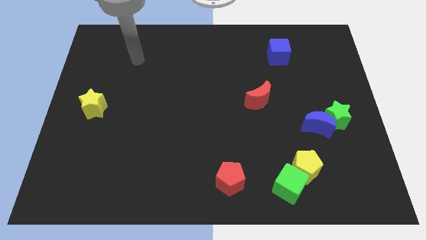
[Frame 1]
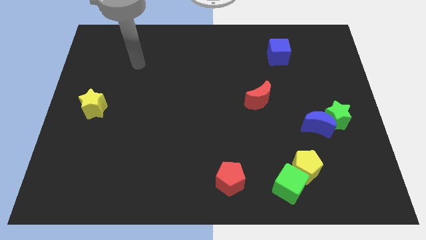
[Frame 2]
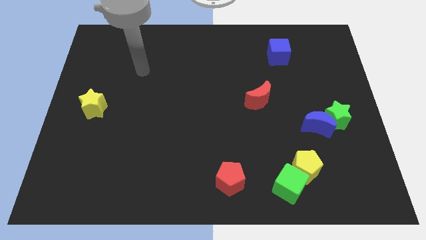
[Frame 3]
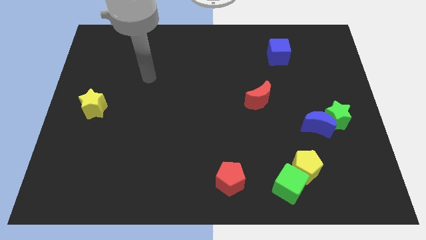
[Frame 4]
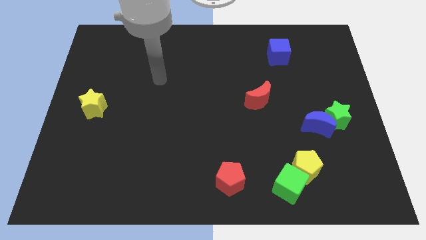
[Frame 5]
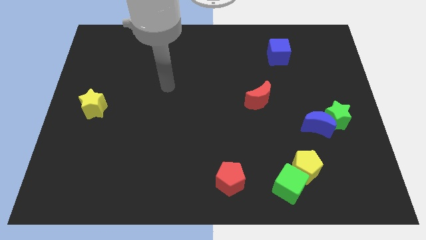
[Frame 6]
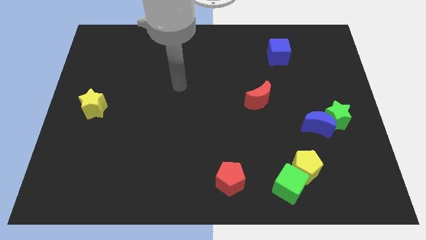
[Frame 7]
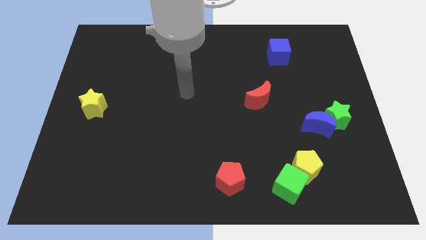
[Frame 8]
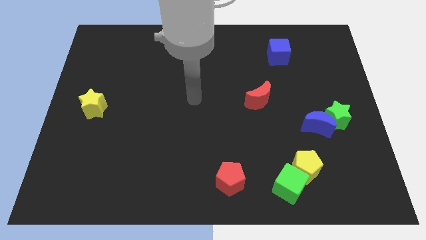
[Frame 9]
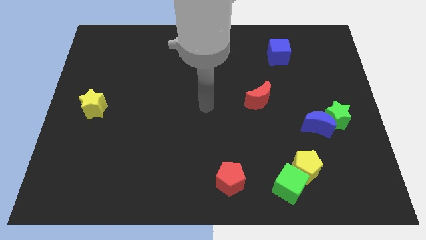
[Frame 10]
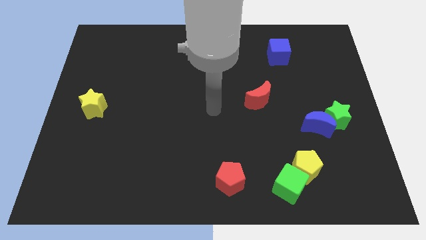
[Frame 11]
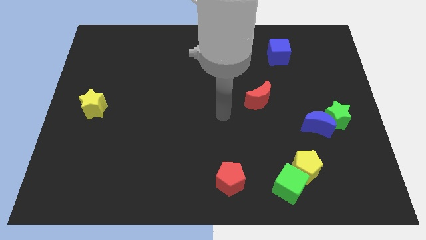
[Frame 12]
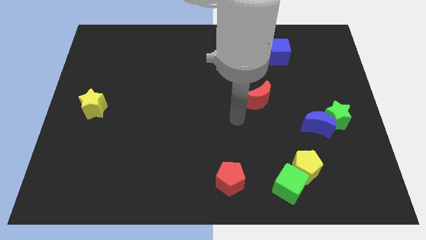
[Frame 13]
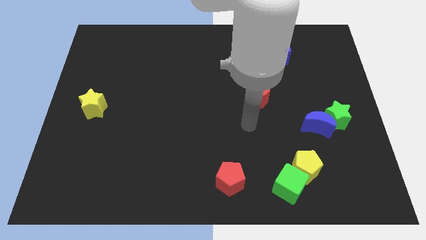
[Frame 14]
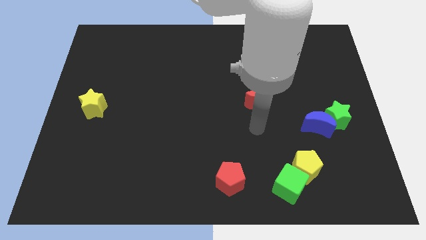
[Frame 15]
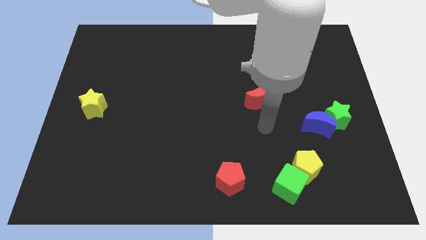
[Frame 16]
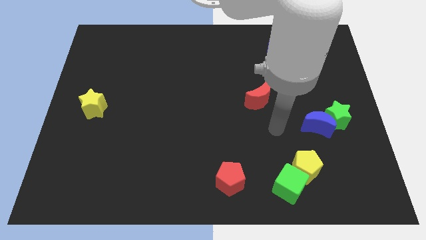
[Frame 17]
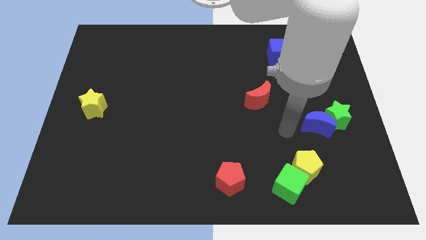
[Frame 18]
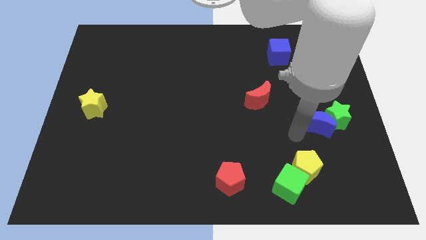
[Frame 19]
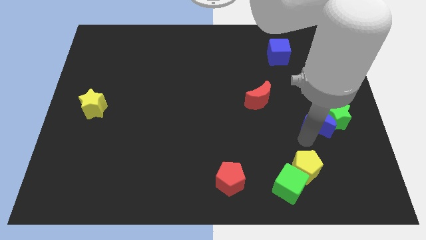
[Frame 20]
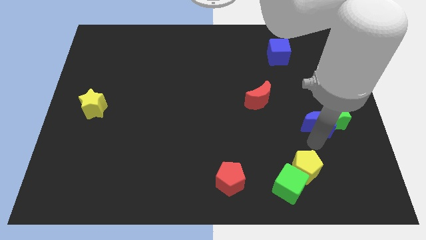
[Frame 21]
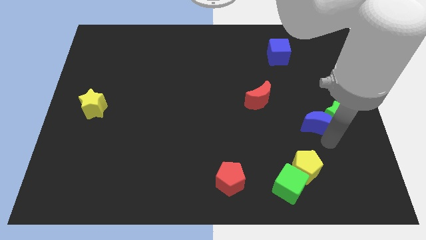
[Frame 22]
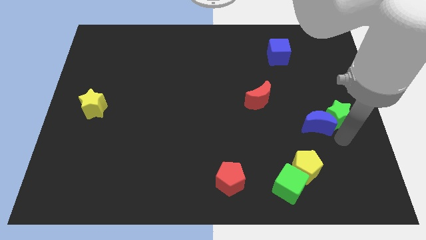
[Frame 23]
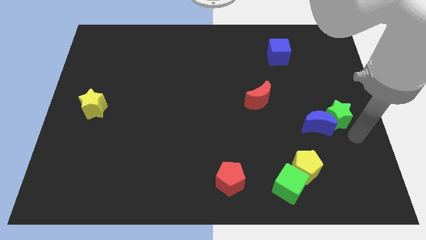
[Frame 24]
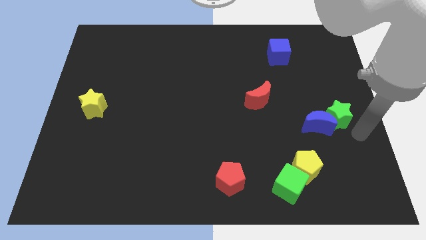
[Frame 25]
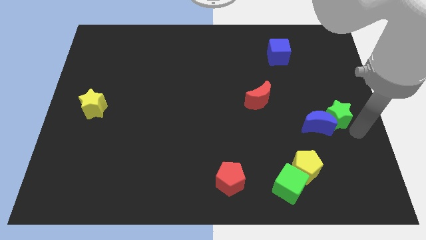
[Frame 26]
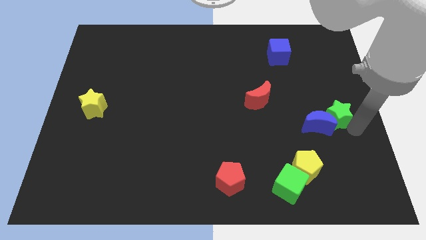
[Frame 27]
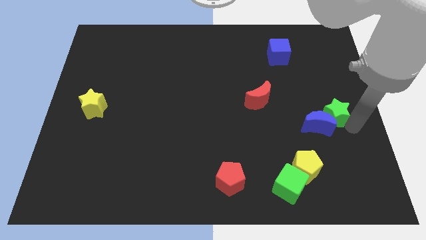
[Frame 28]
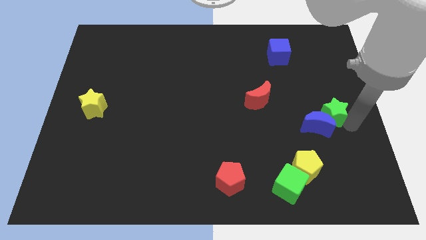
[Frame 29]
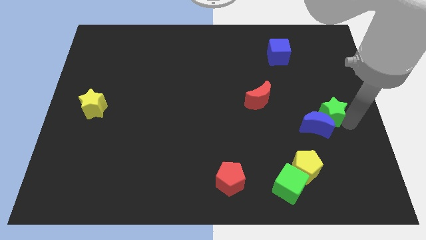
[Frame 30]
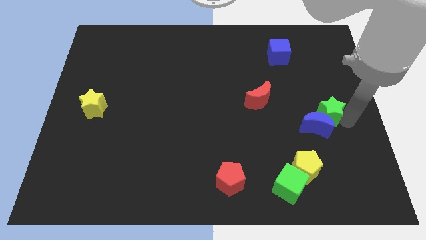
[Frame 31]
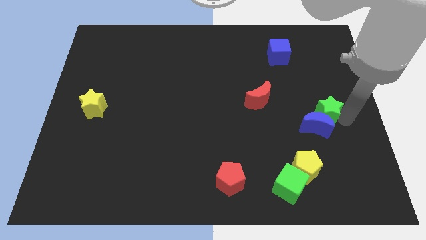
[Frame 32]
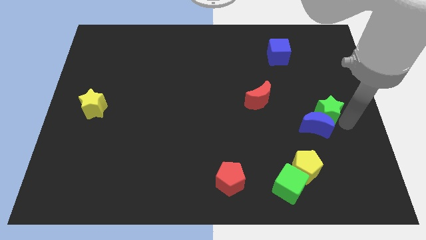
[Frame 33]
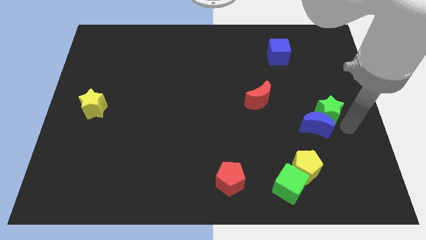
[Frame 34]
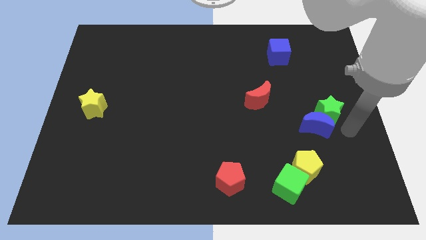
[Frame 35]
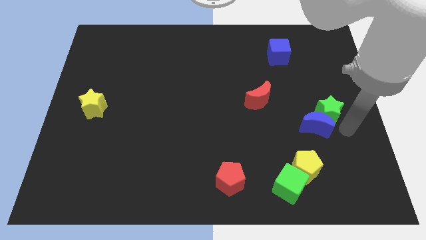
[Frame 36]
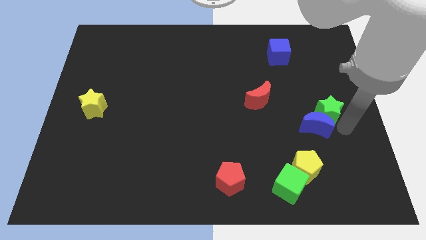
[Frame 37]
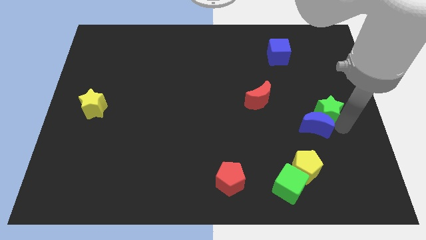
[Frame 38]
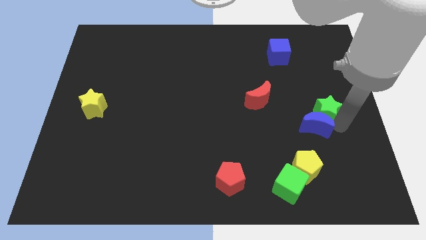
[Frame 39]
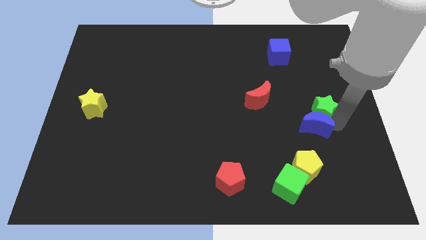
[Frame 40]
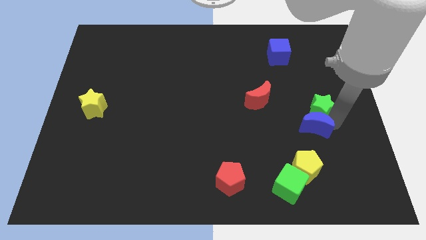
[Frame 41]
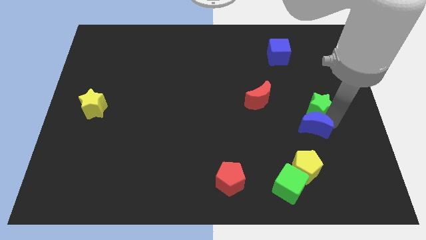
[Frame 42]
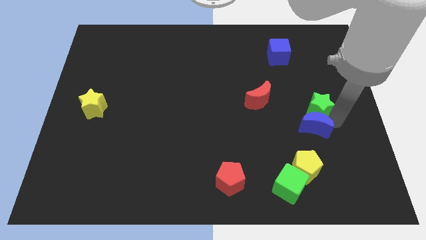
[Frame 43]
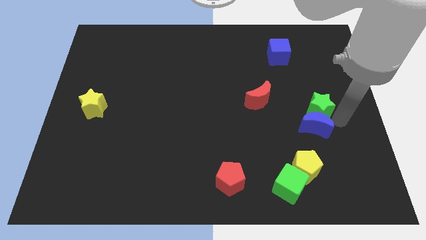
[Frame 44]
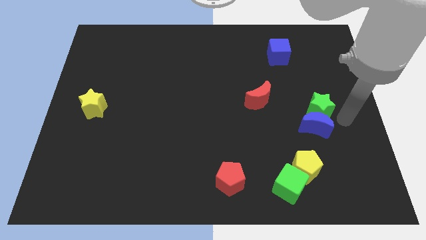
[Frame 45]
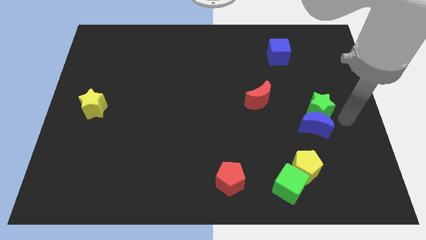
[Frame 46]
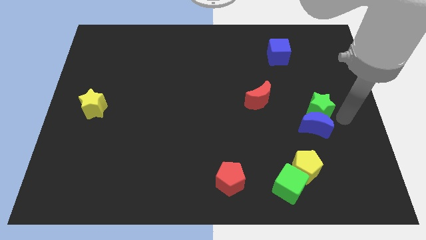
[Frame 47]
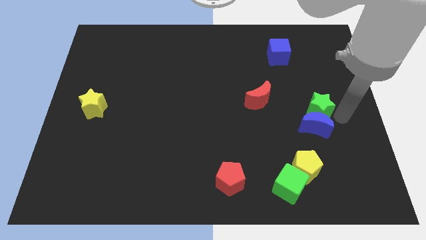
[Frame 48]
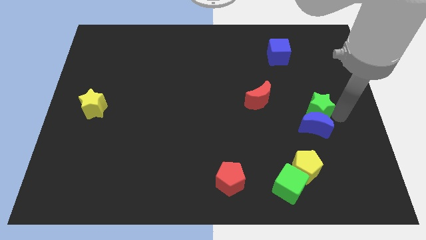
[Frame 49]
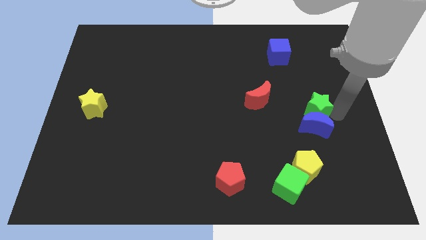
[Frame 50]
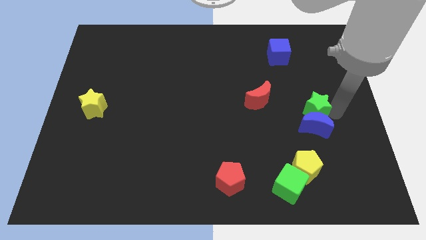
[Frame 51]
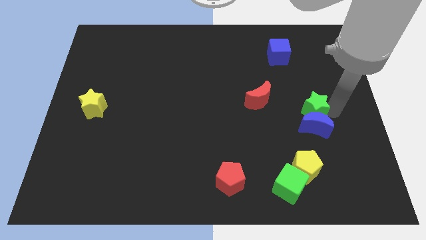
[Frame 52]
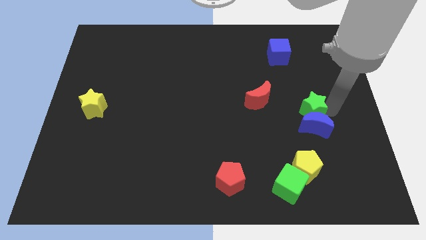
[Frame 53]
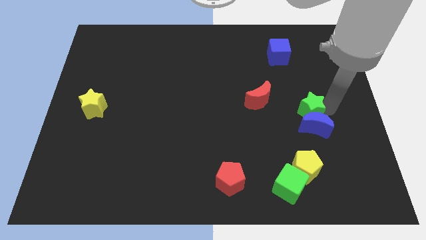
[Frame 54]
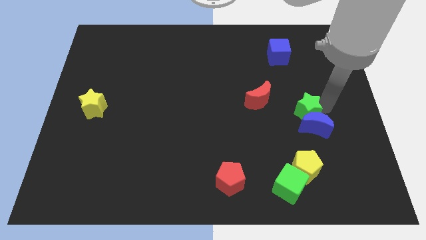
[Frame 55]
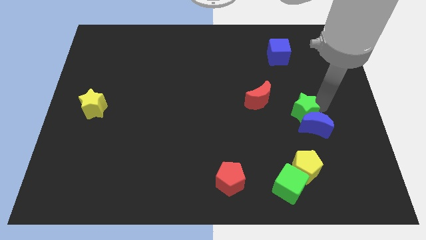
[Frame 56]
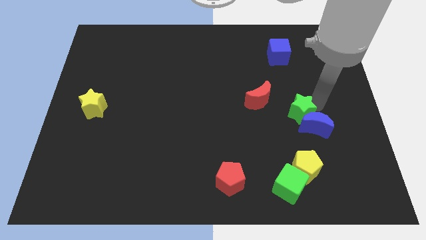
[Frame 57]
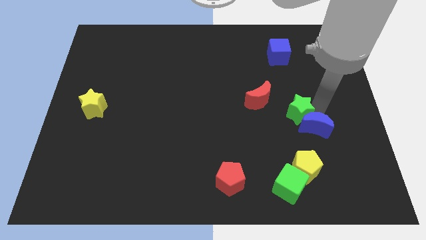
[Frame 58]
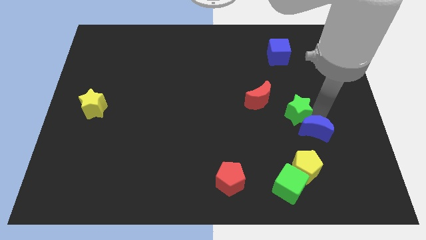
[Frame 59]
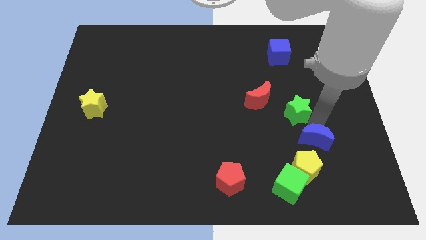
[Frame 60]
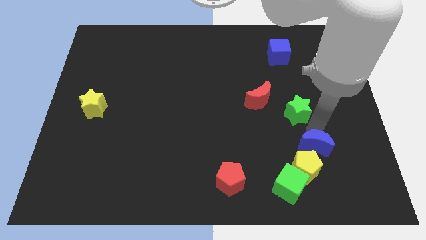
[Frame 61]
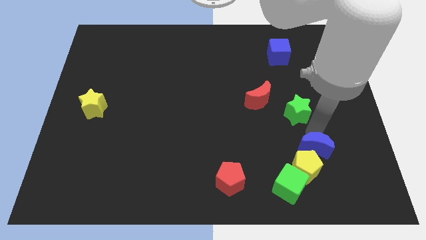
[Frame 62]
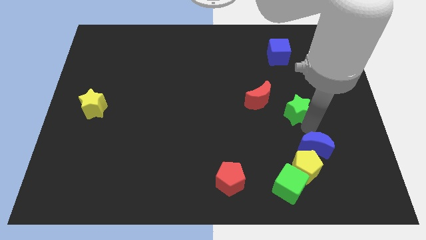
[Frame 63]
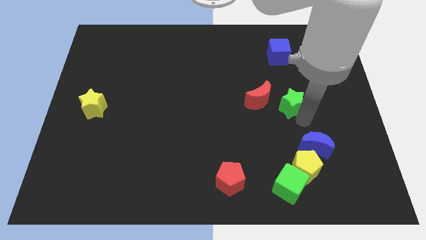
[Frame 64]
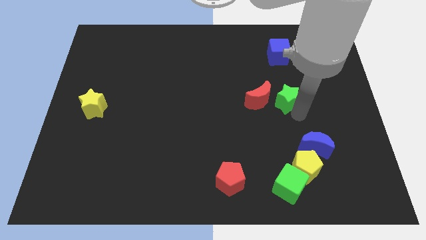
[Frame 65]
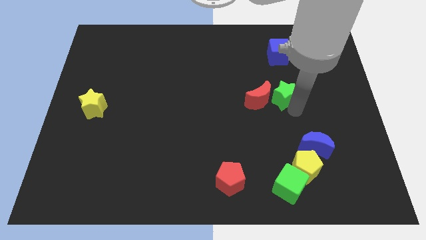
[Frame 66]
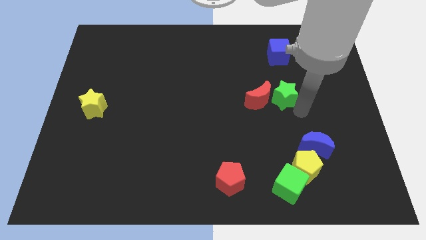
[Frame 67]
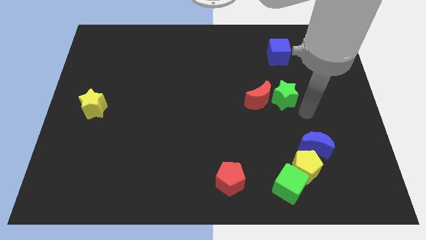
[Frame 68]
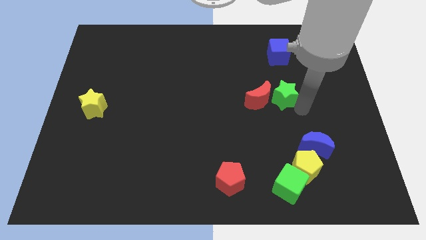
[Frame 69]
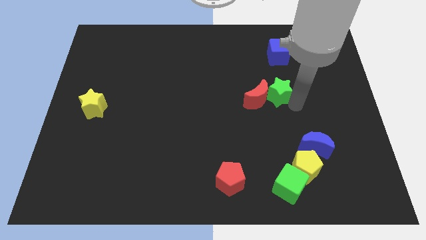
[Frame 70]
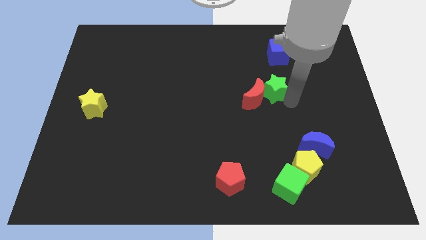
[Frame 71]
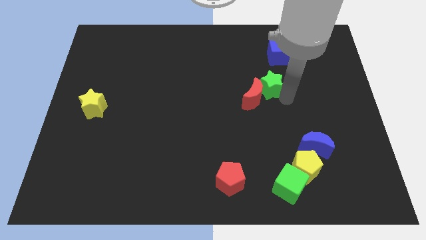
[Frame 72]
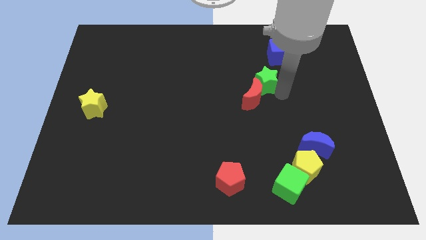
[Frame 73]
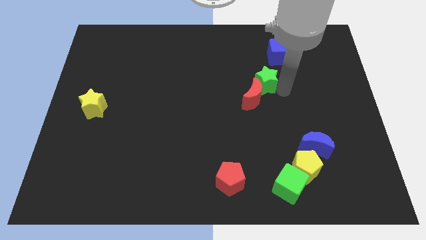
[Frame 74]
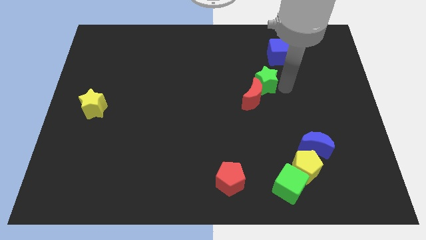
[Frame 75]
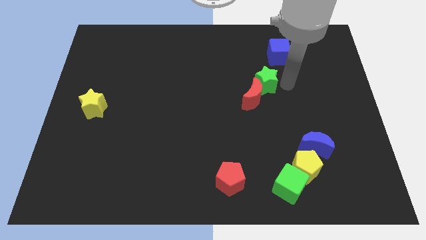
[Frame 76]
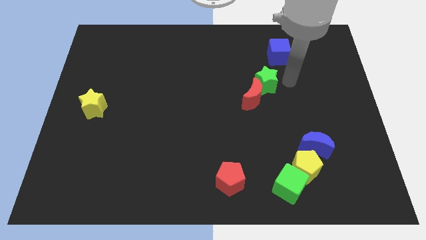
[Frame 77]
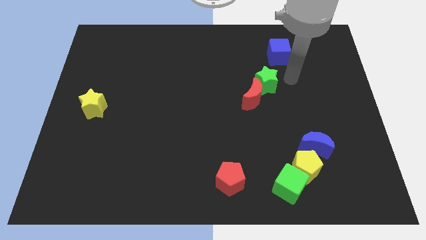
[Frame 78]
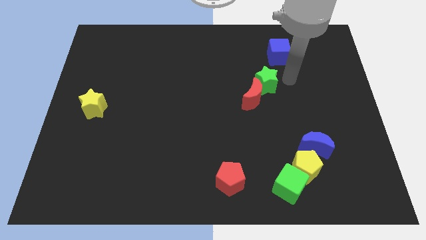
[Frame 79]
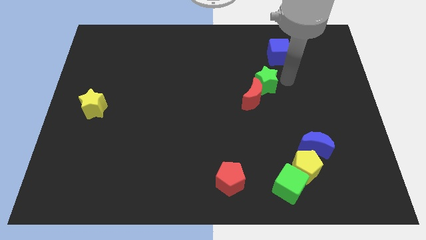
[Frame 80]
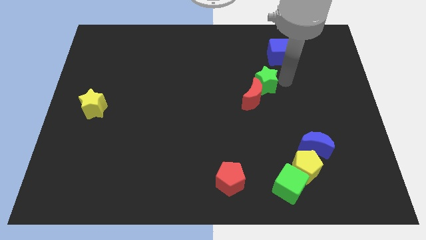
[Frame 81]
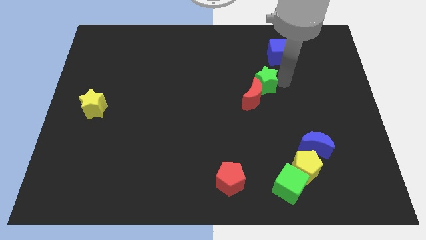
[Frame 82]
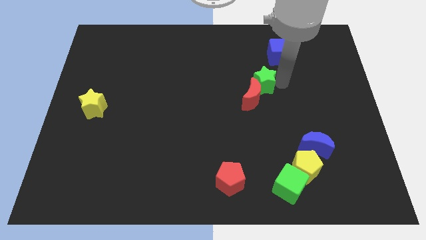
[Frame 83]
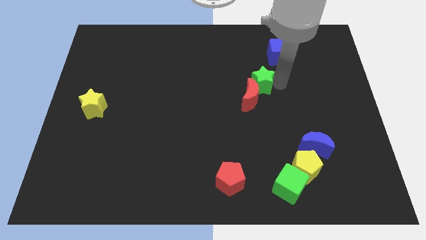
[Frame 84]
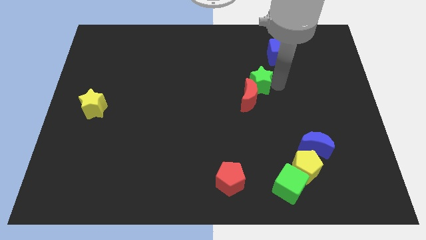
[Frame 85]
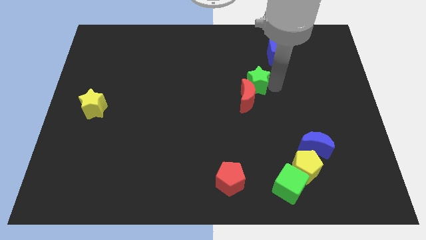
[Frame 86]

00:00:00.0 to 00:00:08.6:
slide the green star to the center
